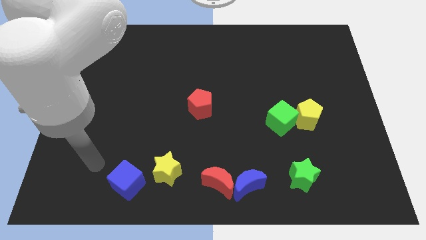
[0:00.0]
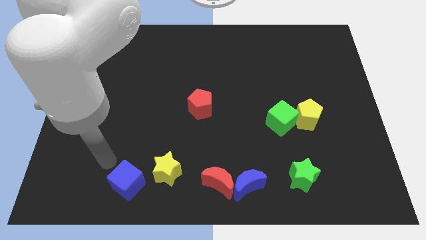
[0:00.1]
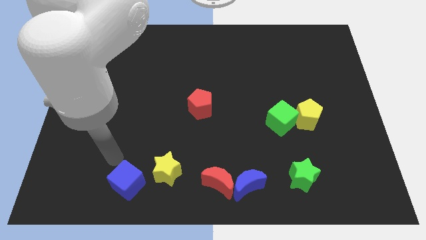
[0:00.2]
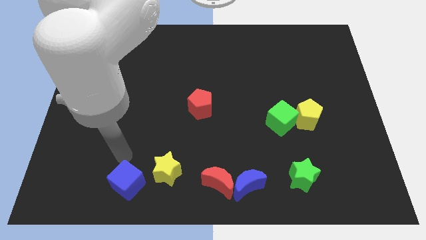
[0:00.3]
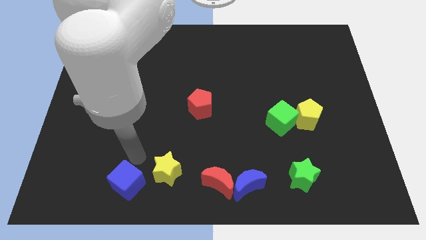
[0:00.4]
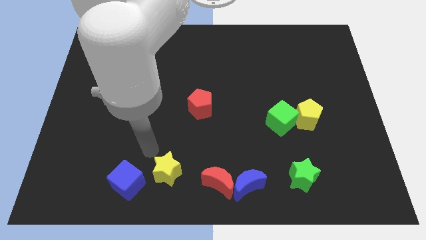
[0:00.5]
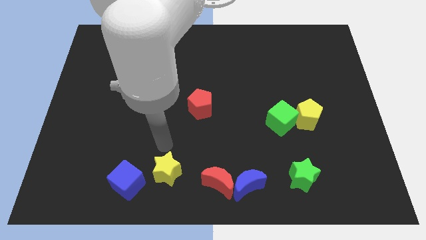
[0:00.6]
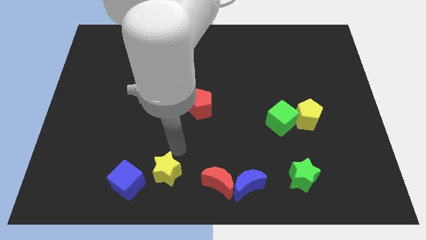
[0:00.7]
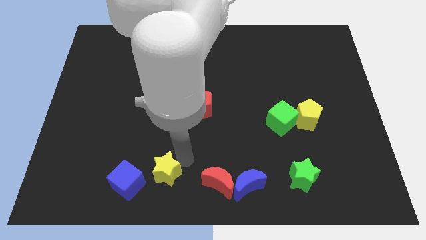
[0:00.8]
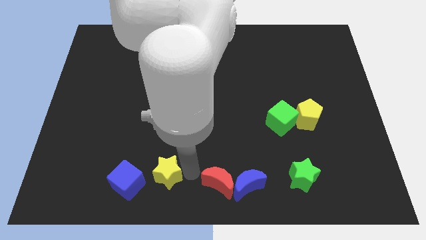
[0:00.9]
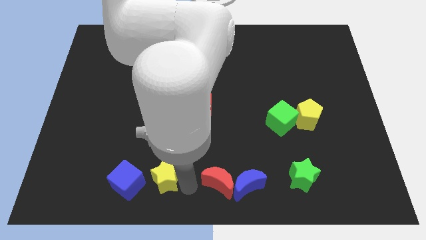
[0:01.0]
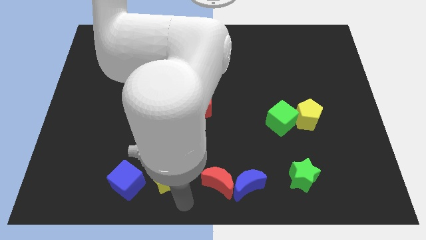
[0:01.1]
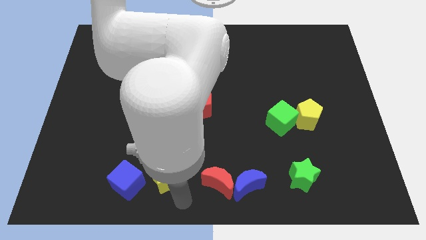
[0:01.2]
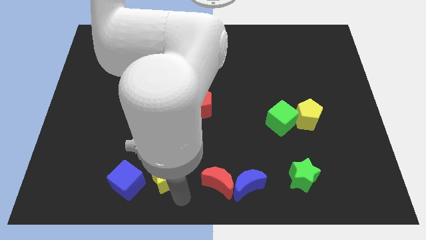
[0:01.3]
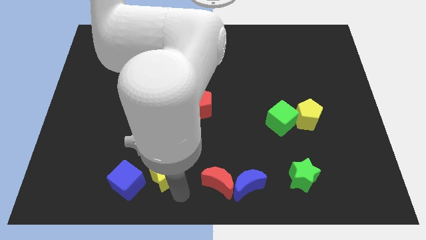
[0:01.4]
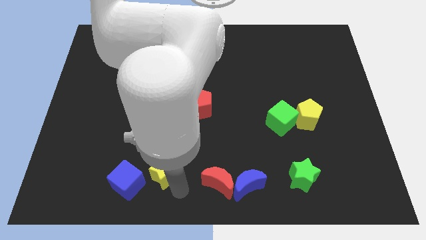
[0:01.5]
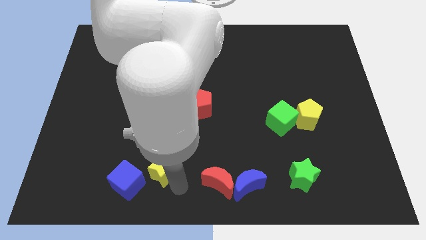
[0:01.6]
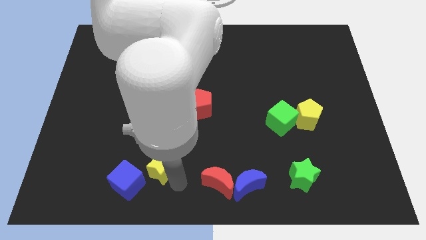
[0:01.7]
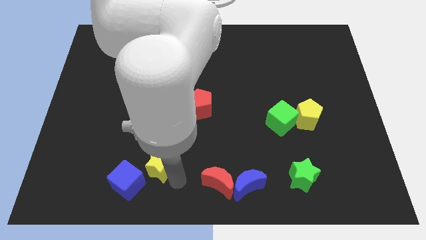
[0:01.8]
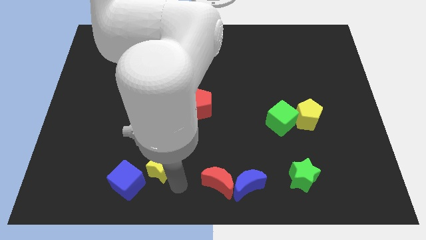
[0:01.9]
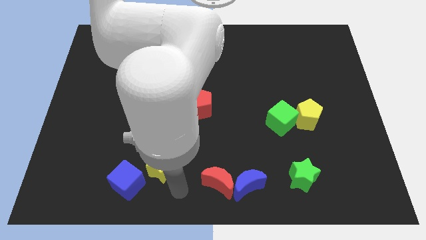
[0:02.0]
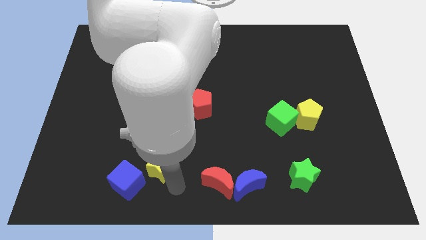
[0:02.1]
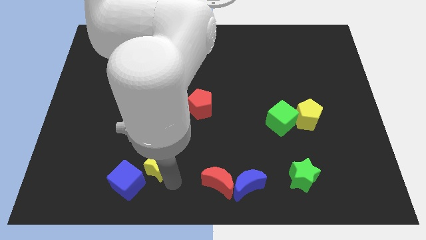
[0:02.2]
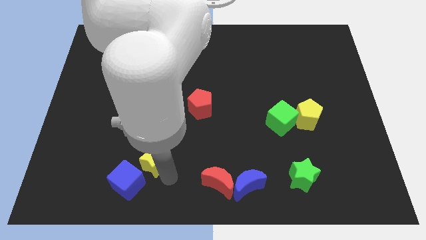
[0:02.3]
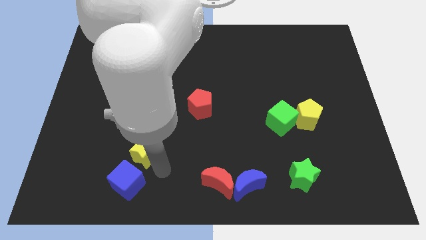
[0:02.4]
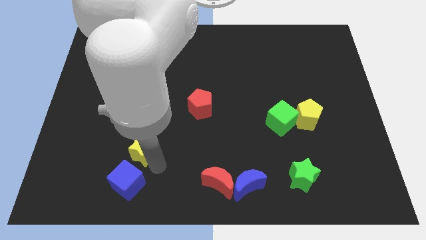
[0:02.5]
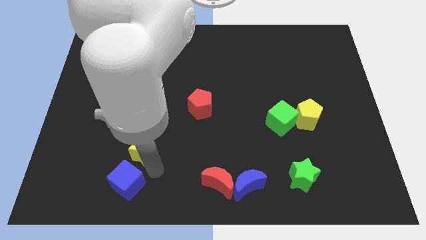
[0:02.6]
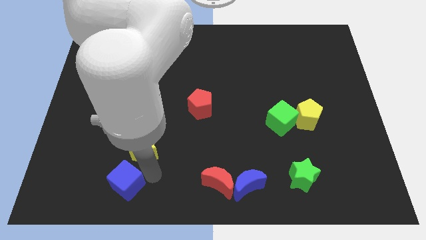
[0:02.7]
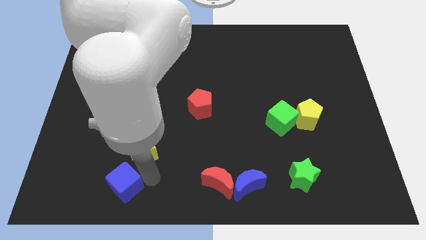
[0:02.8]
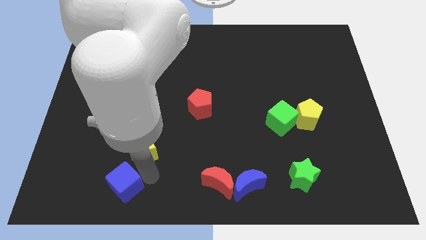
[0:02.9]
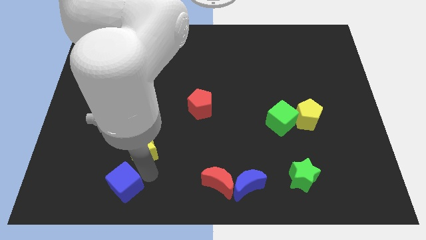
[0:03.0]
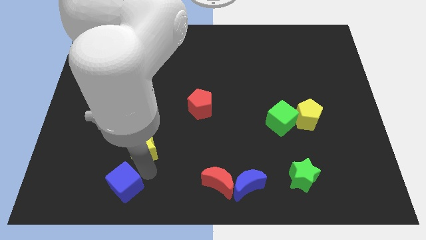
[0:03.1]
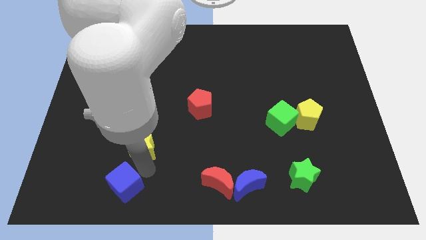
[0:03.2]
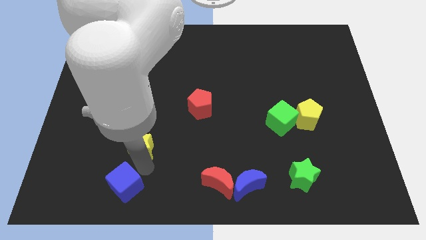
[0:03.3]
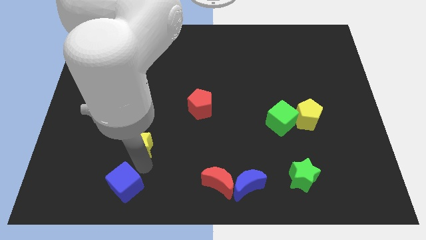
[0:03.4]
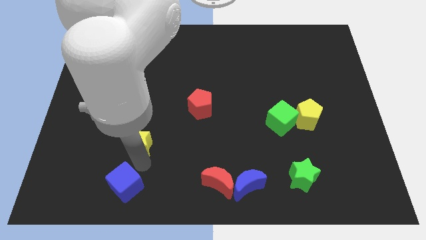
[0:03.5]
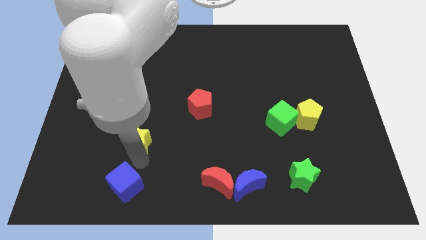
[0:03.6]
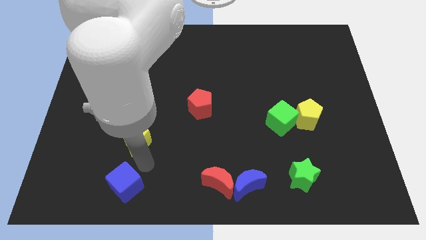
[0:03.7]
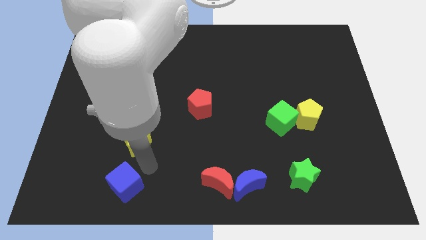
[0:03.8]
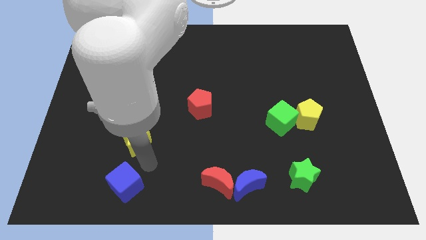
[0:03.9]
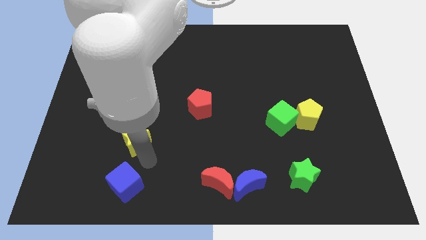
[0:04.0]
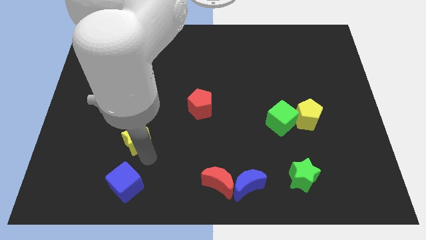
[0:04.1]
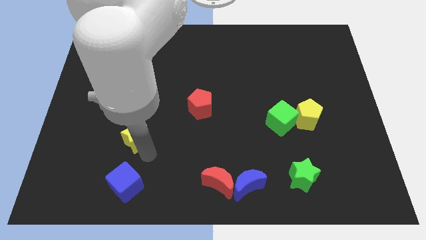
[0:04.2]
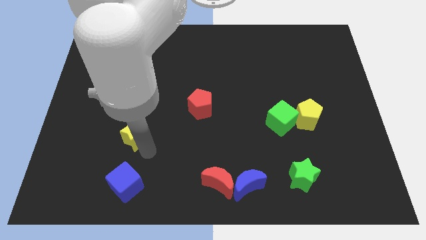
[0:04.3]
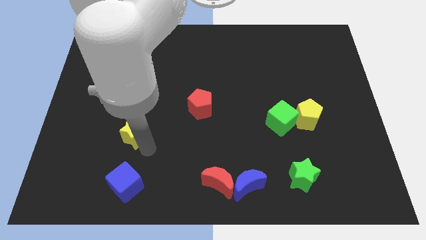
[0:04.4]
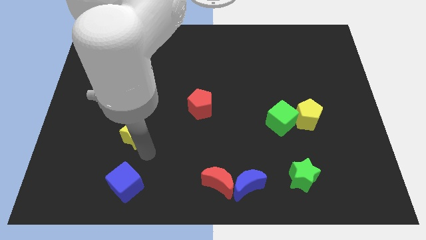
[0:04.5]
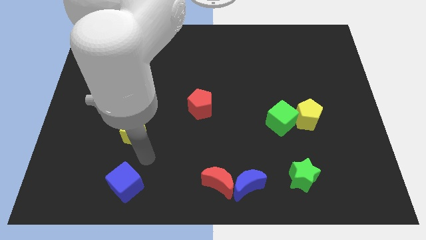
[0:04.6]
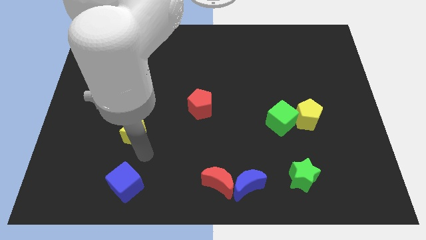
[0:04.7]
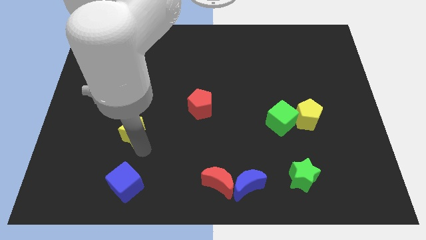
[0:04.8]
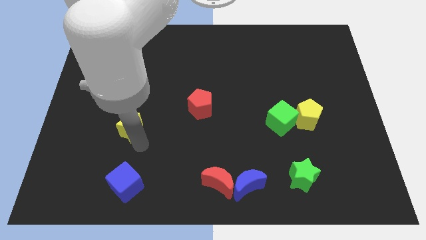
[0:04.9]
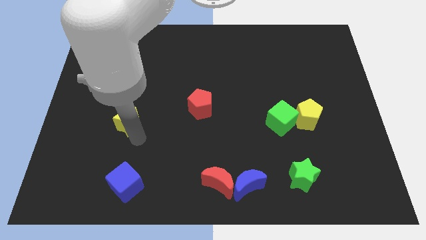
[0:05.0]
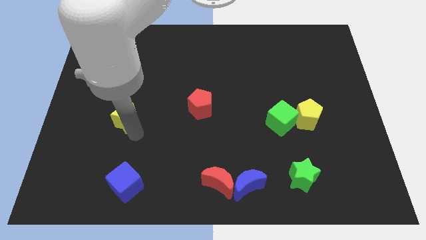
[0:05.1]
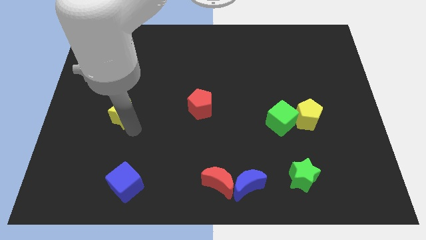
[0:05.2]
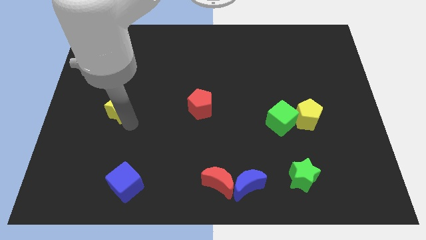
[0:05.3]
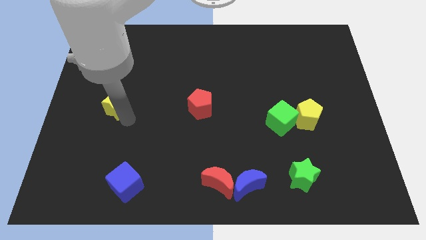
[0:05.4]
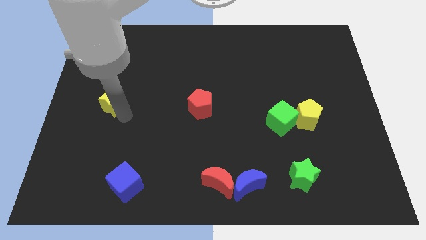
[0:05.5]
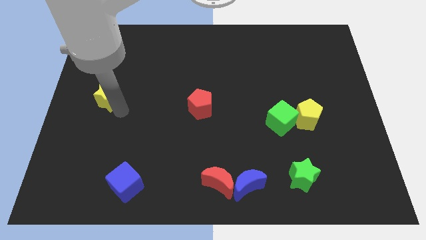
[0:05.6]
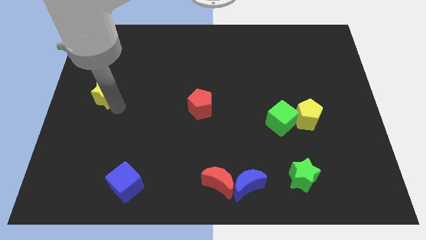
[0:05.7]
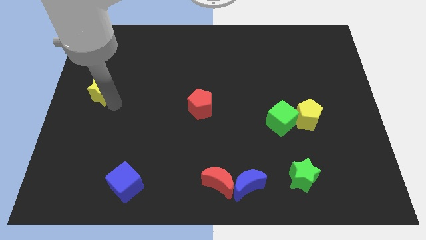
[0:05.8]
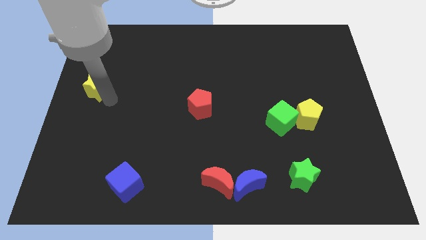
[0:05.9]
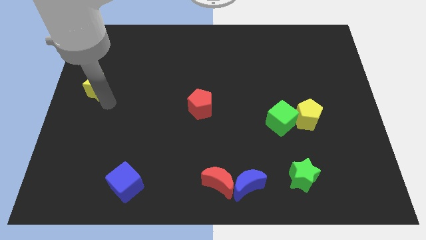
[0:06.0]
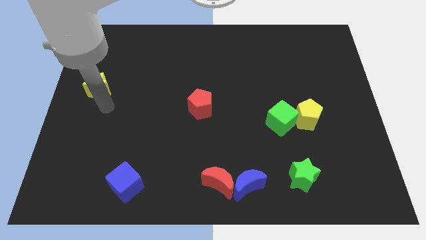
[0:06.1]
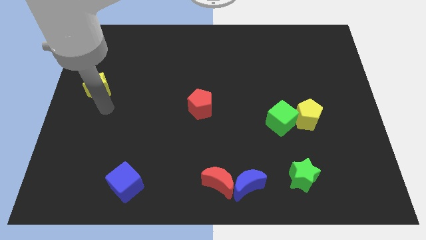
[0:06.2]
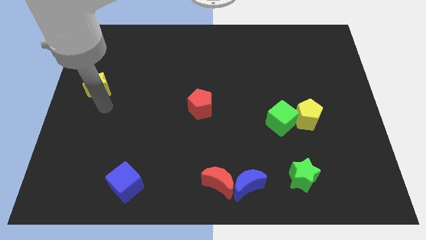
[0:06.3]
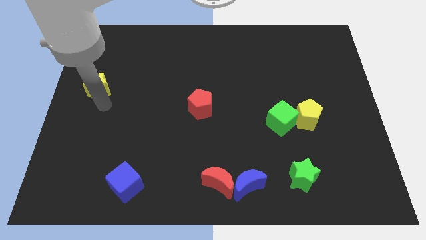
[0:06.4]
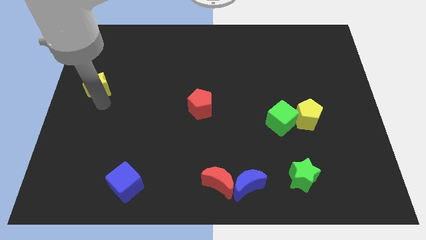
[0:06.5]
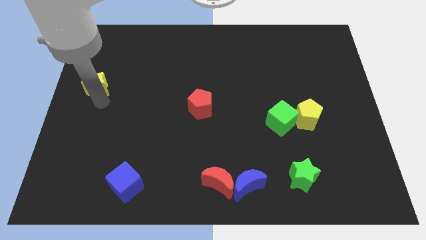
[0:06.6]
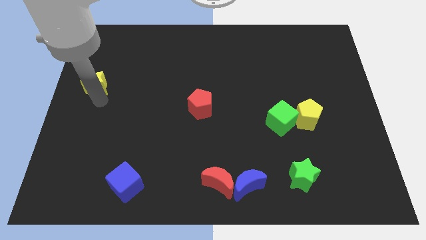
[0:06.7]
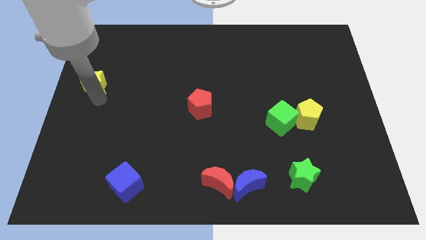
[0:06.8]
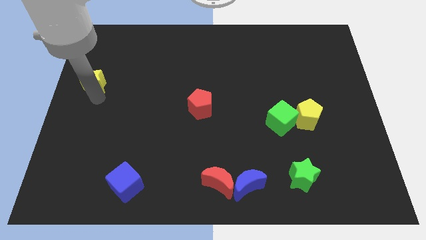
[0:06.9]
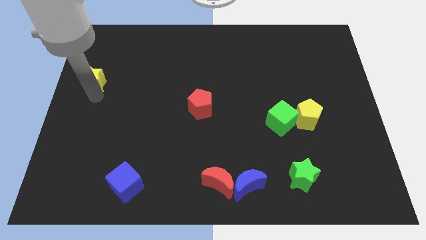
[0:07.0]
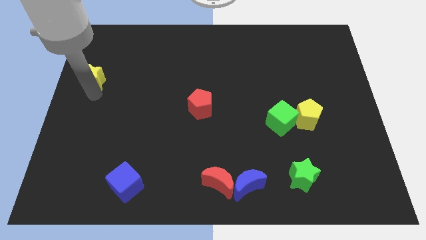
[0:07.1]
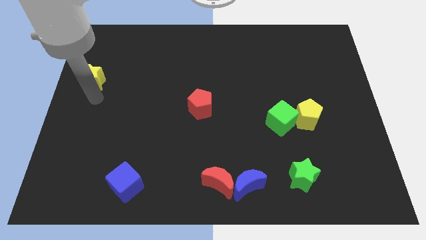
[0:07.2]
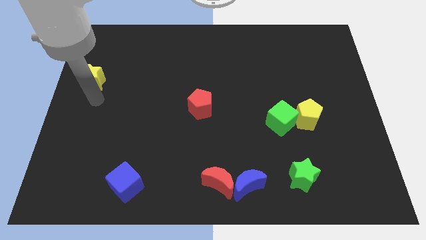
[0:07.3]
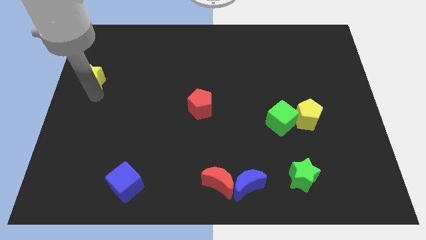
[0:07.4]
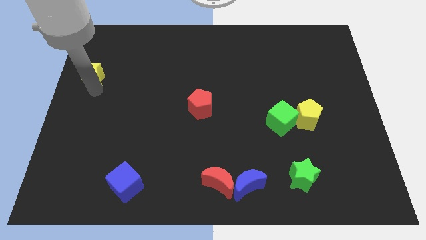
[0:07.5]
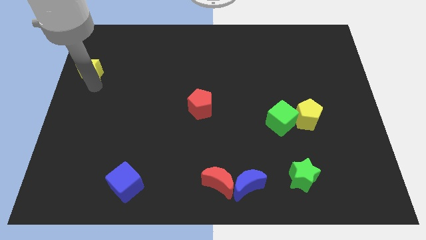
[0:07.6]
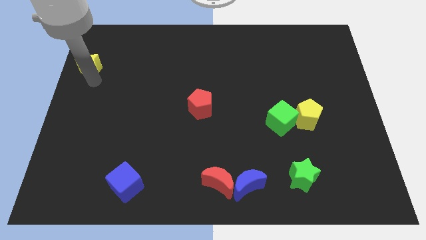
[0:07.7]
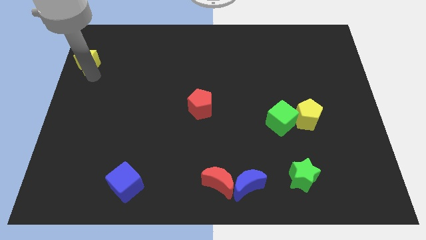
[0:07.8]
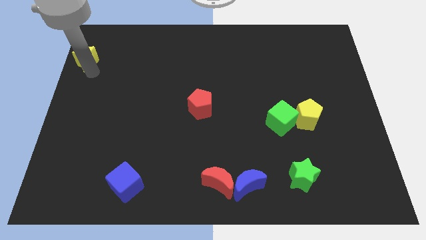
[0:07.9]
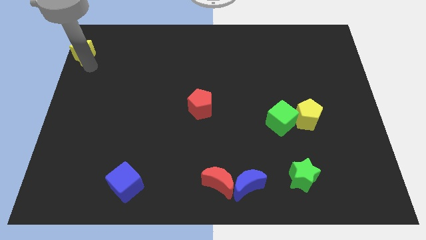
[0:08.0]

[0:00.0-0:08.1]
put the yellow star to the top left
